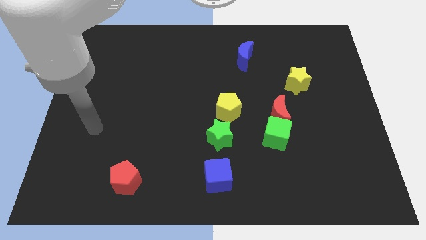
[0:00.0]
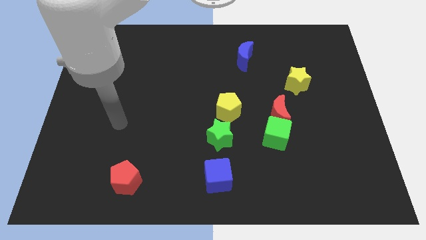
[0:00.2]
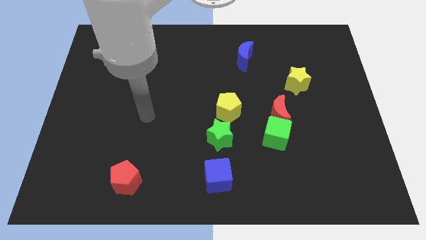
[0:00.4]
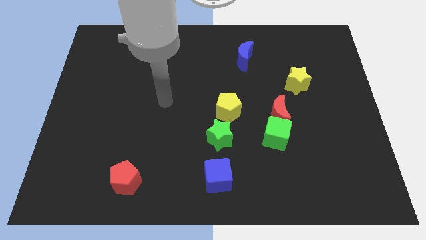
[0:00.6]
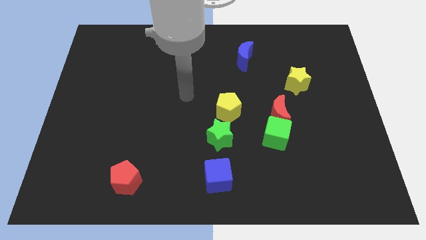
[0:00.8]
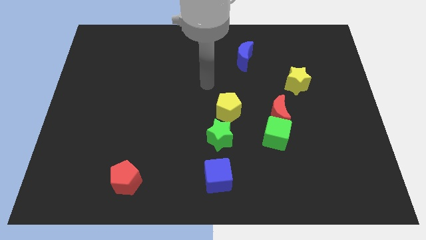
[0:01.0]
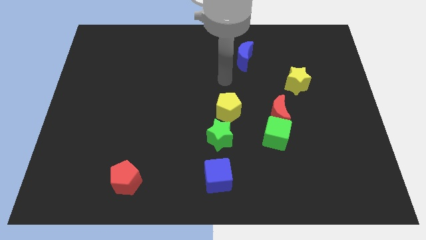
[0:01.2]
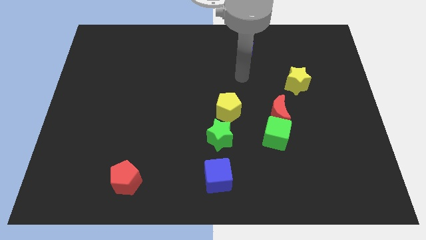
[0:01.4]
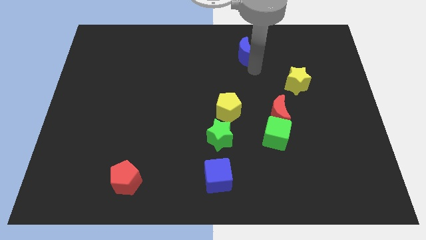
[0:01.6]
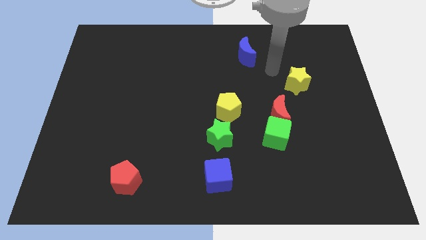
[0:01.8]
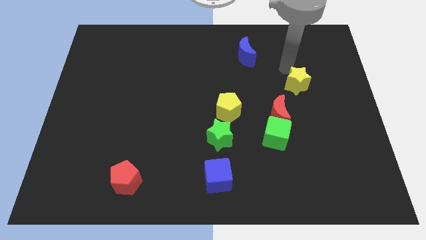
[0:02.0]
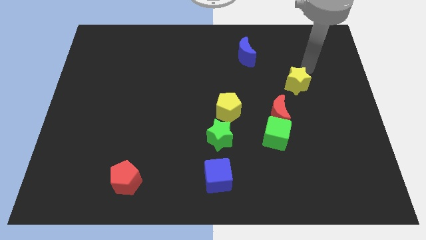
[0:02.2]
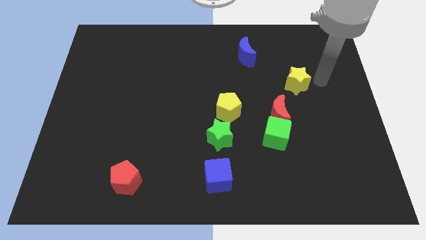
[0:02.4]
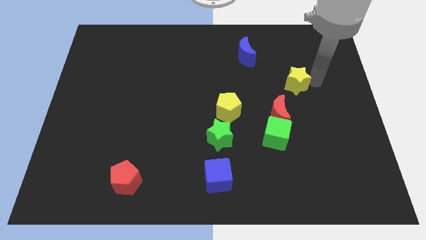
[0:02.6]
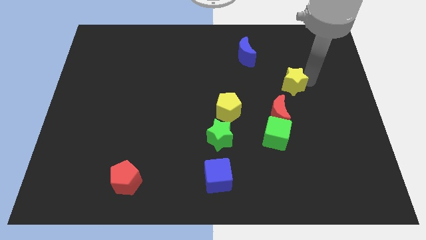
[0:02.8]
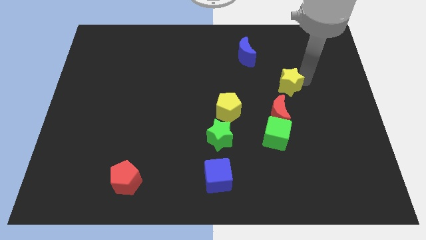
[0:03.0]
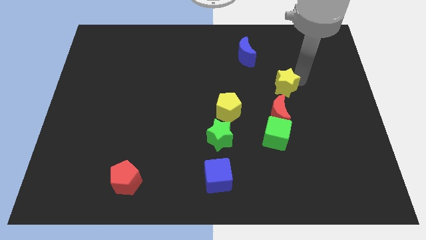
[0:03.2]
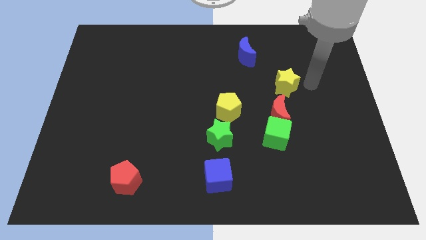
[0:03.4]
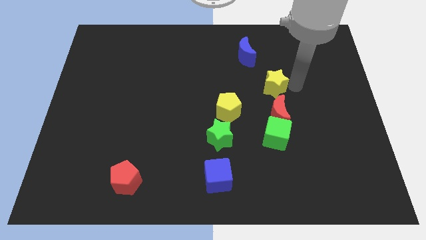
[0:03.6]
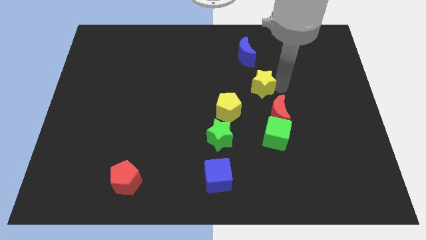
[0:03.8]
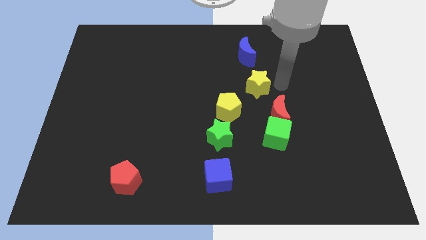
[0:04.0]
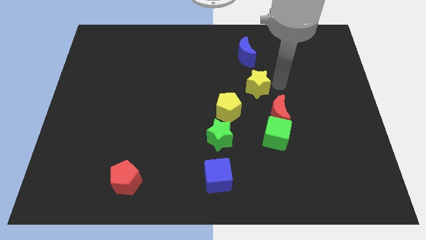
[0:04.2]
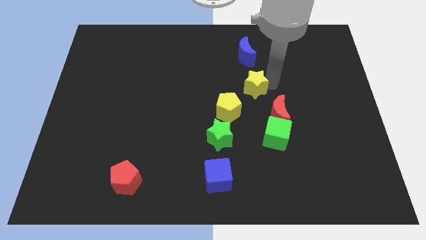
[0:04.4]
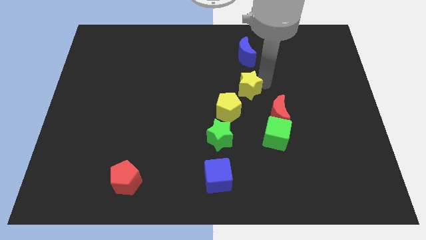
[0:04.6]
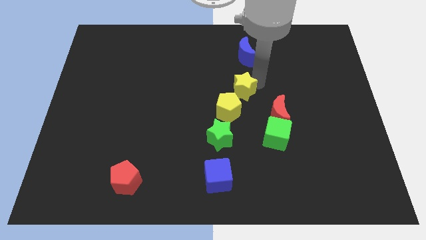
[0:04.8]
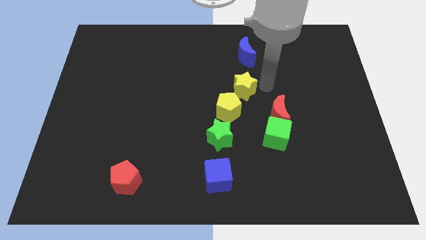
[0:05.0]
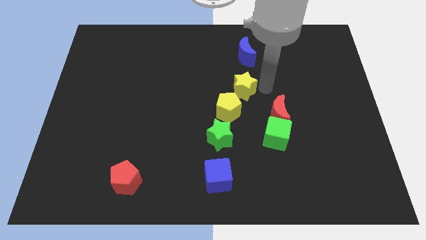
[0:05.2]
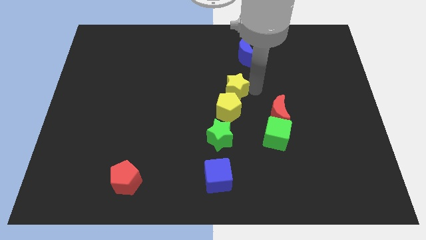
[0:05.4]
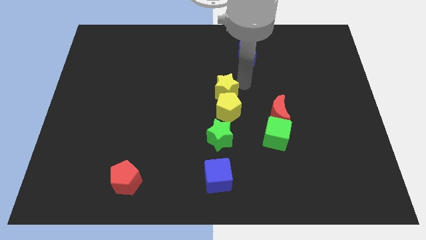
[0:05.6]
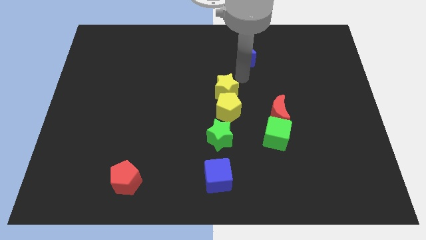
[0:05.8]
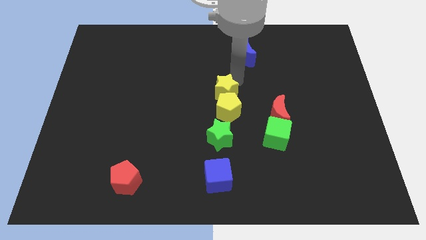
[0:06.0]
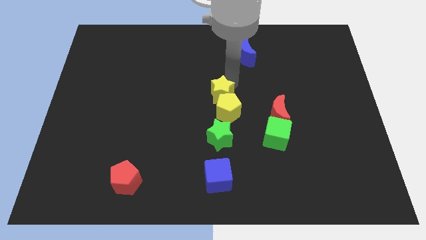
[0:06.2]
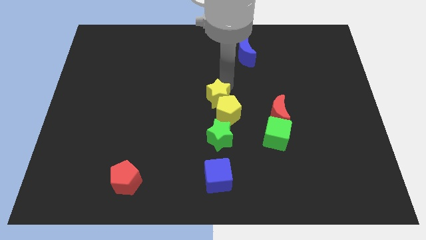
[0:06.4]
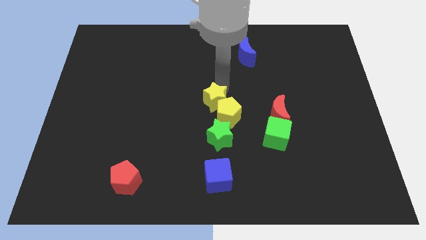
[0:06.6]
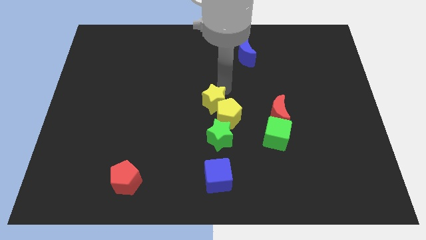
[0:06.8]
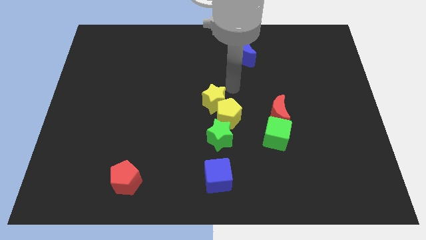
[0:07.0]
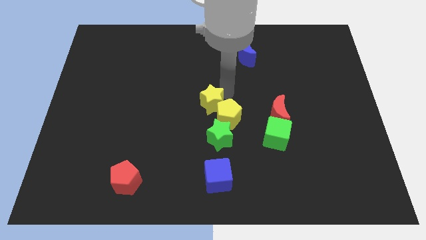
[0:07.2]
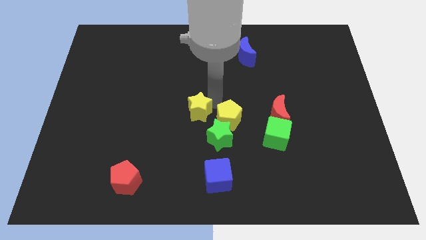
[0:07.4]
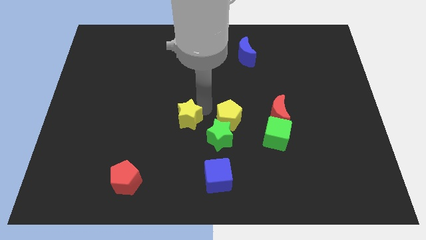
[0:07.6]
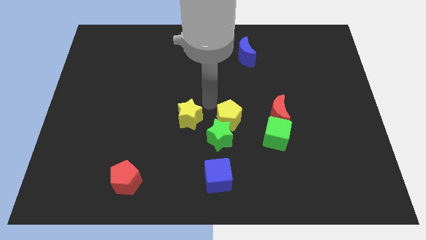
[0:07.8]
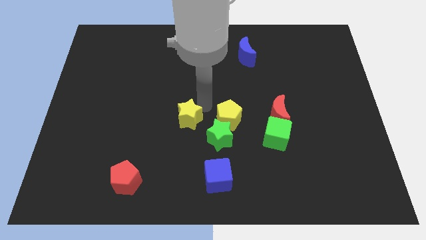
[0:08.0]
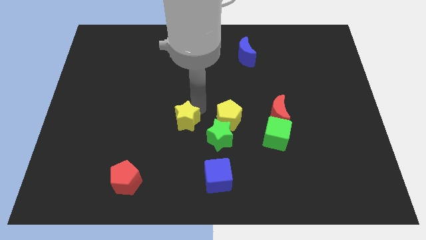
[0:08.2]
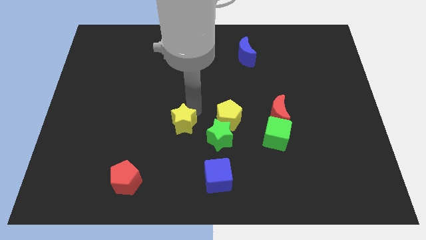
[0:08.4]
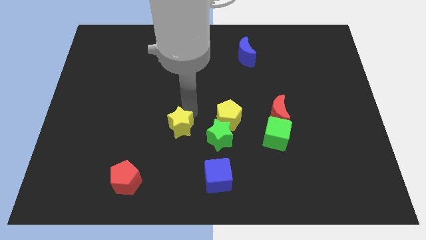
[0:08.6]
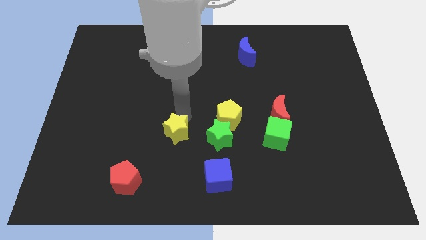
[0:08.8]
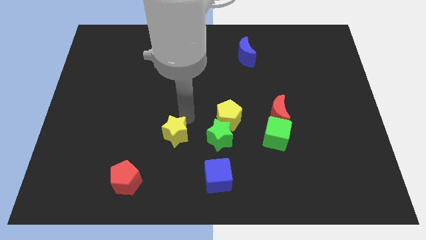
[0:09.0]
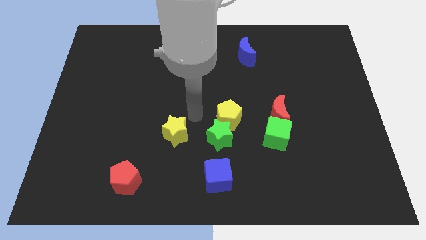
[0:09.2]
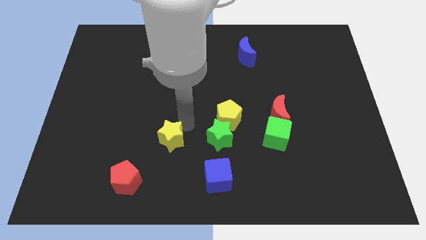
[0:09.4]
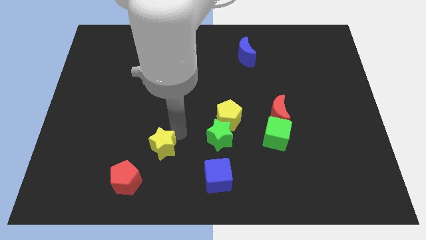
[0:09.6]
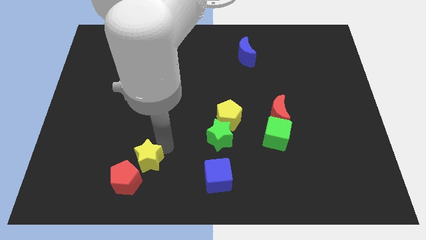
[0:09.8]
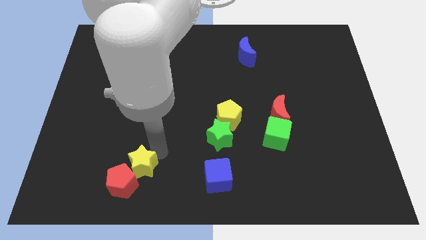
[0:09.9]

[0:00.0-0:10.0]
move the yellow star next to the red pentagon

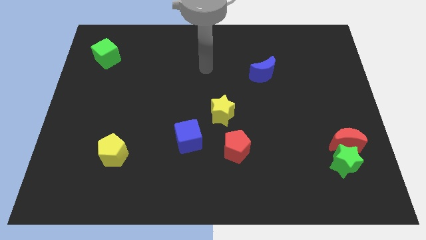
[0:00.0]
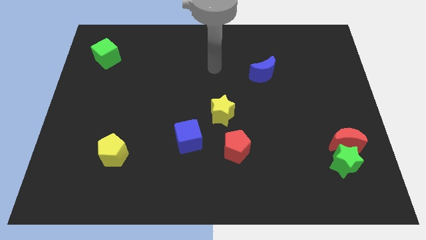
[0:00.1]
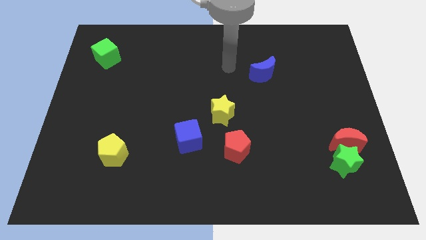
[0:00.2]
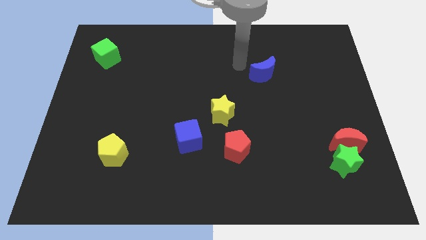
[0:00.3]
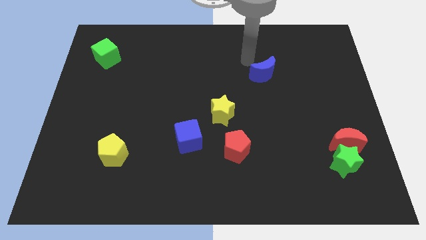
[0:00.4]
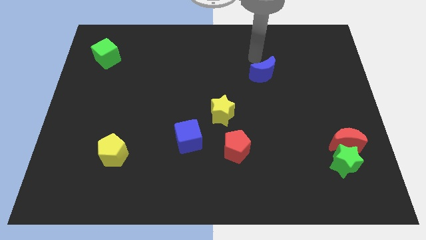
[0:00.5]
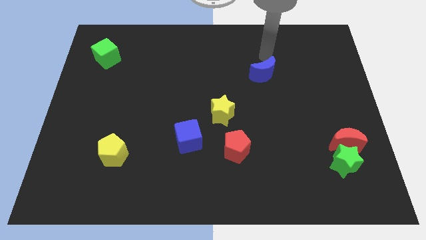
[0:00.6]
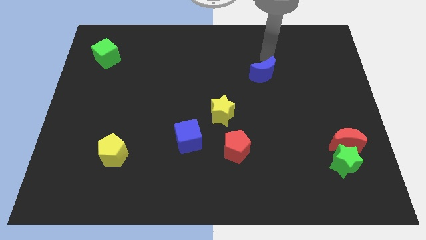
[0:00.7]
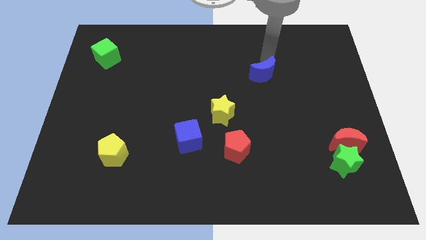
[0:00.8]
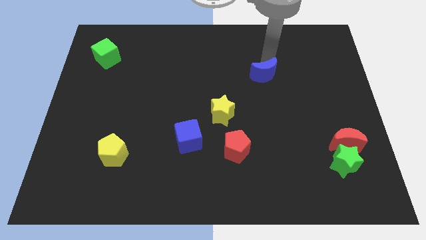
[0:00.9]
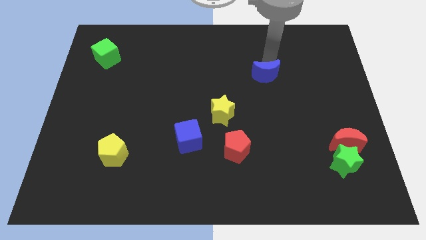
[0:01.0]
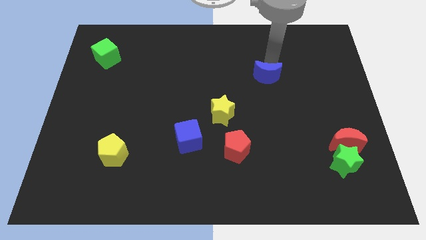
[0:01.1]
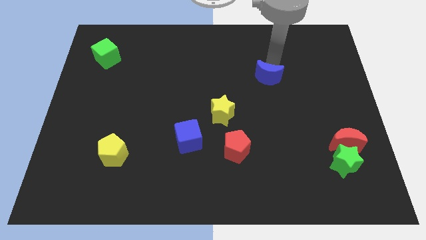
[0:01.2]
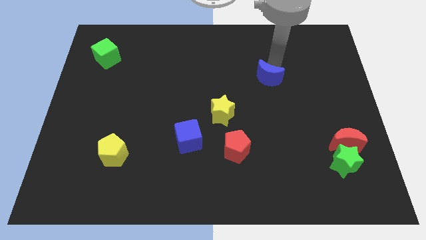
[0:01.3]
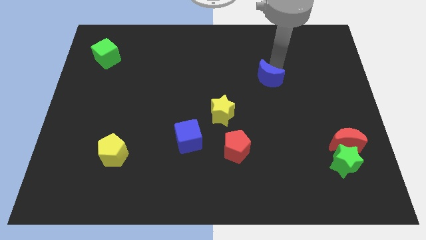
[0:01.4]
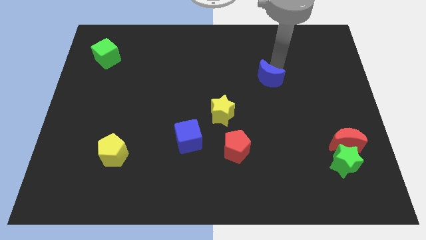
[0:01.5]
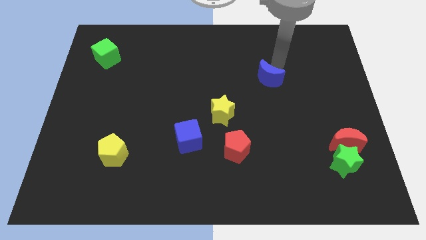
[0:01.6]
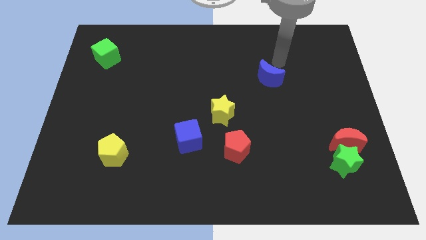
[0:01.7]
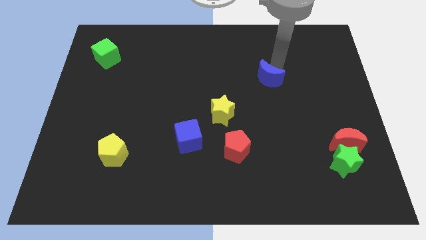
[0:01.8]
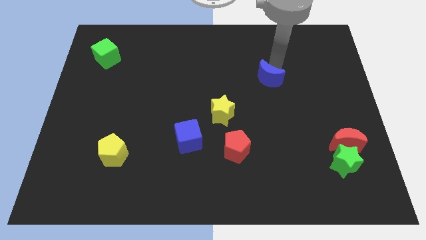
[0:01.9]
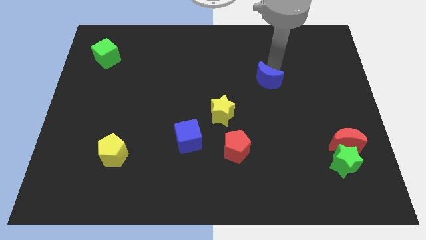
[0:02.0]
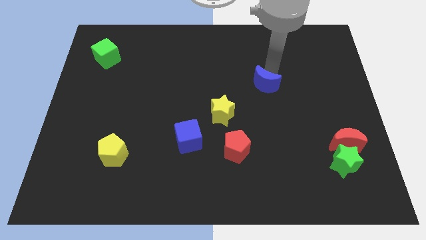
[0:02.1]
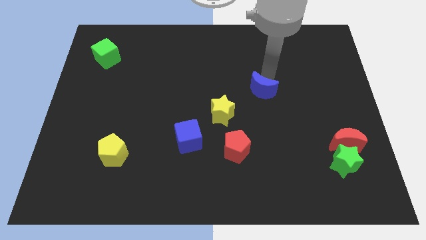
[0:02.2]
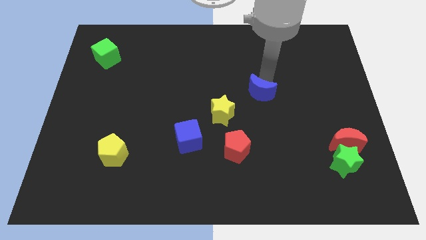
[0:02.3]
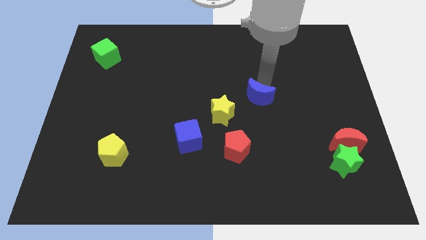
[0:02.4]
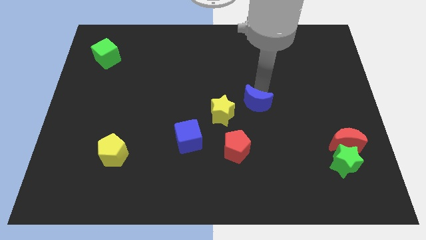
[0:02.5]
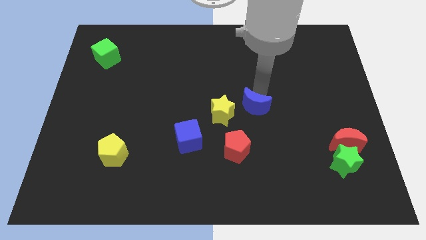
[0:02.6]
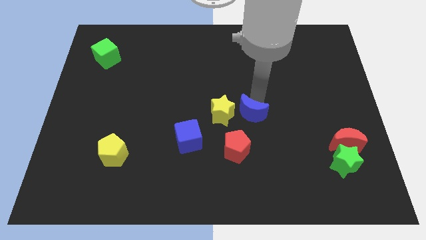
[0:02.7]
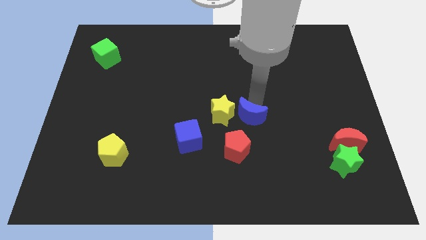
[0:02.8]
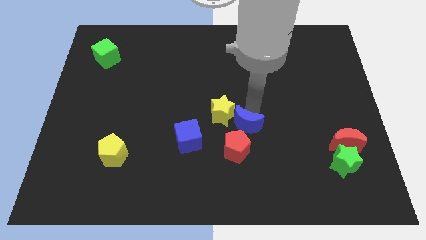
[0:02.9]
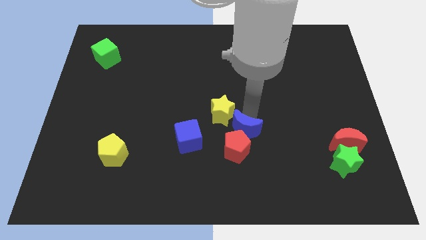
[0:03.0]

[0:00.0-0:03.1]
put the blue moon next to the red pentagon
